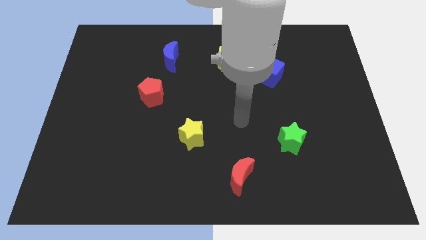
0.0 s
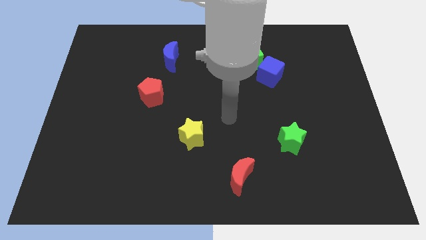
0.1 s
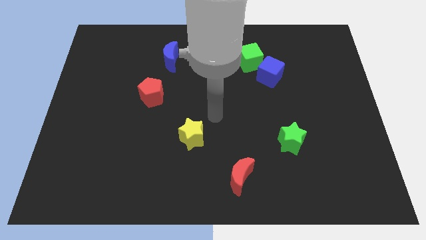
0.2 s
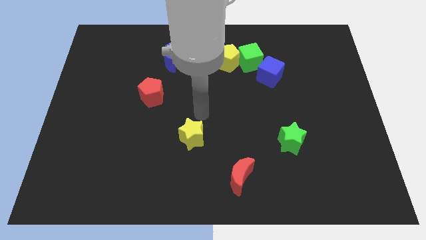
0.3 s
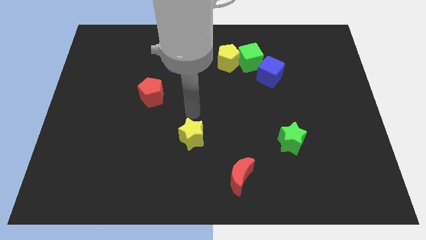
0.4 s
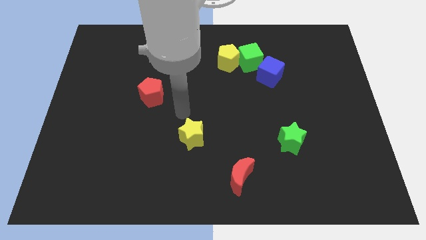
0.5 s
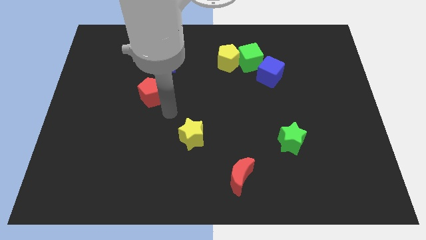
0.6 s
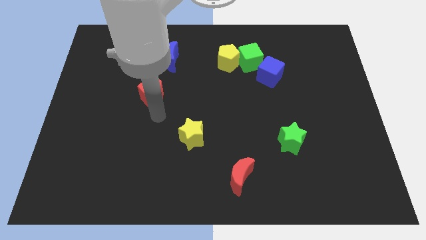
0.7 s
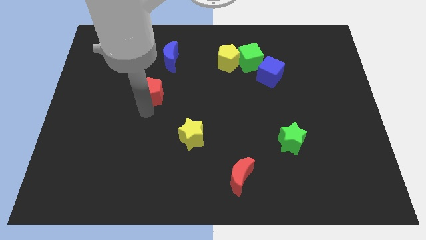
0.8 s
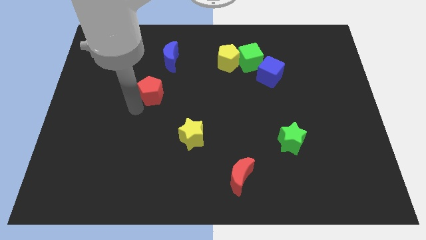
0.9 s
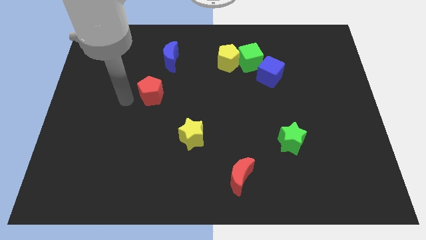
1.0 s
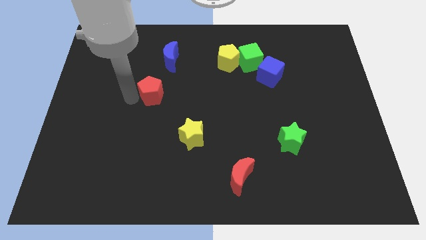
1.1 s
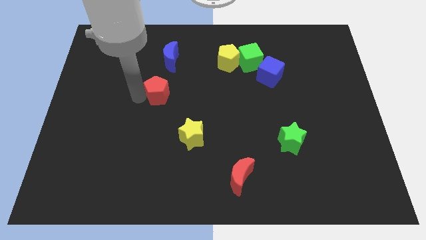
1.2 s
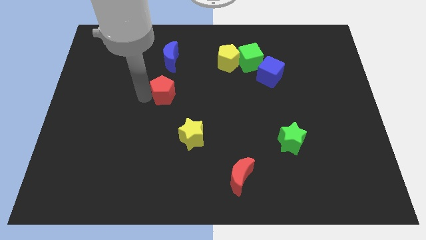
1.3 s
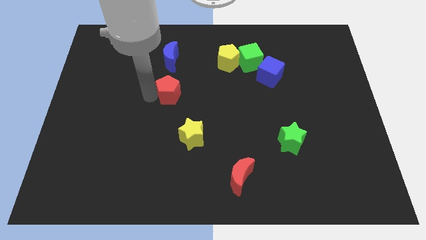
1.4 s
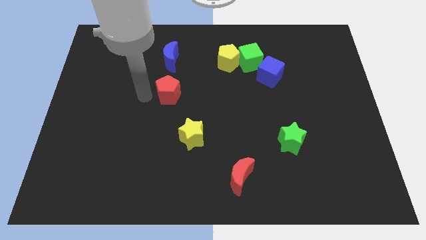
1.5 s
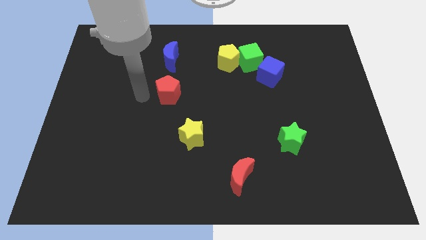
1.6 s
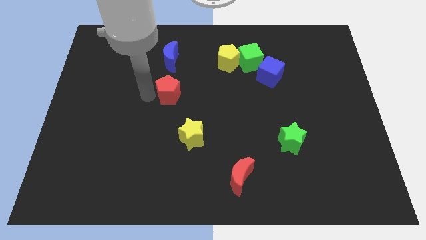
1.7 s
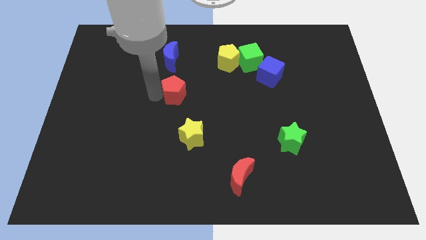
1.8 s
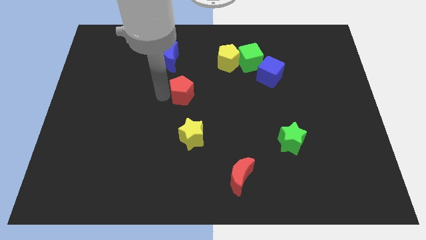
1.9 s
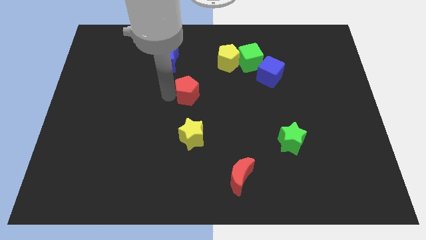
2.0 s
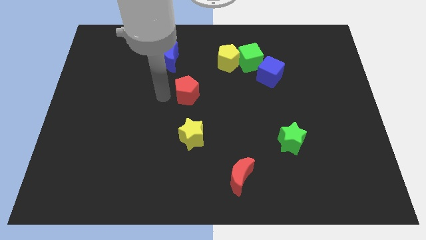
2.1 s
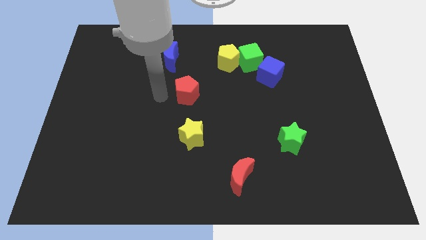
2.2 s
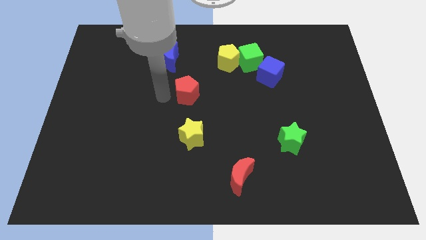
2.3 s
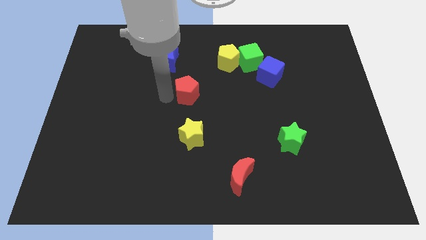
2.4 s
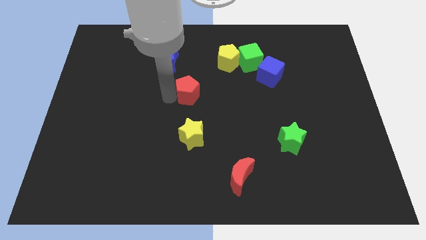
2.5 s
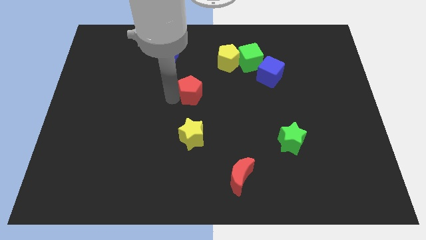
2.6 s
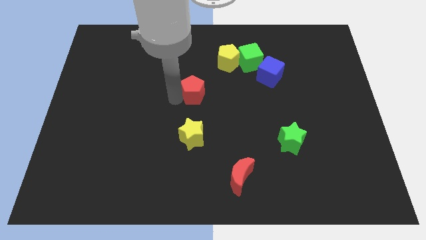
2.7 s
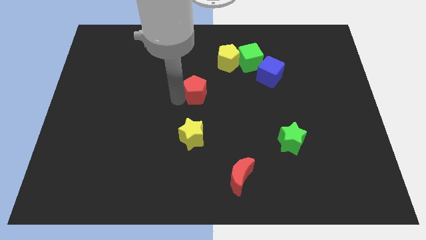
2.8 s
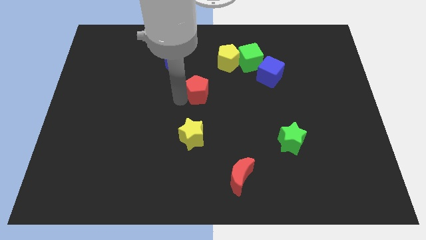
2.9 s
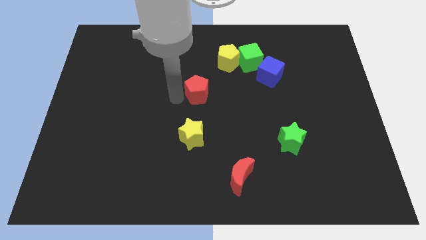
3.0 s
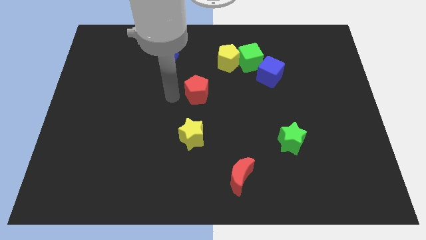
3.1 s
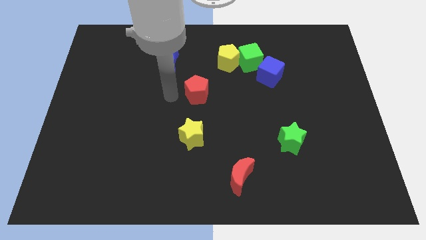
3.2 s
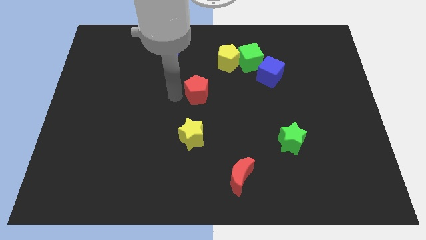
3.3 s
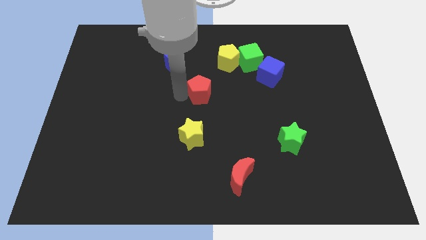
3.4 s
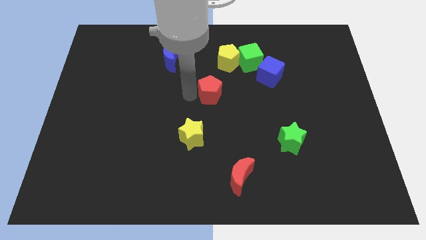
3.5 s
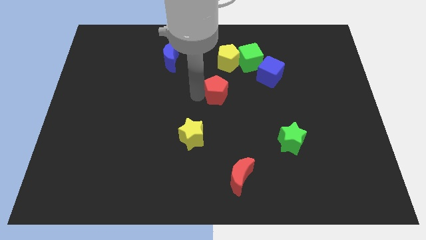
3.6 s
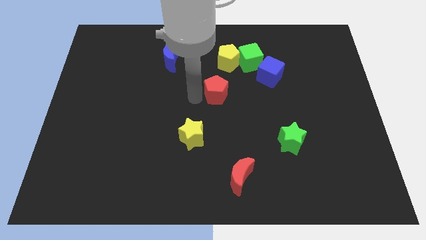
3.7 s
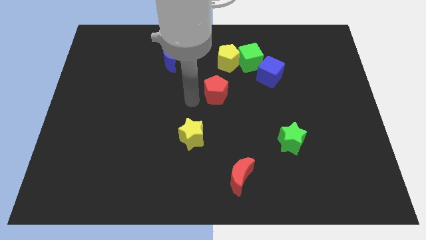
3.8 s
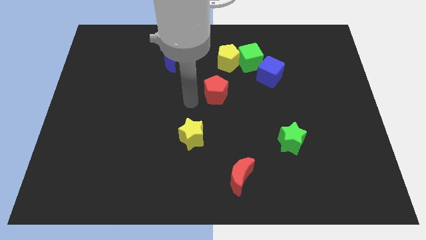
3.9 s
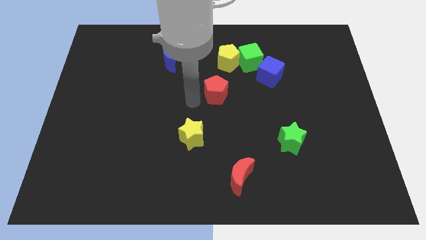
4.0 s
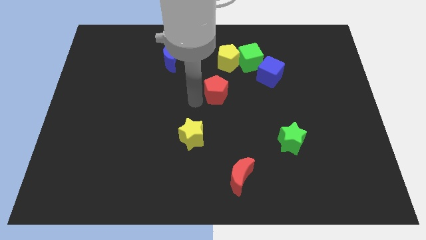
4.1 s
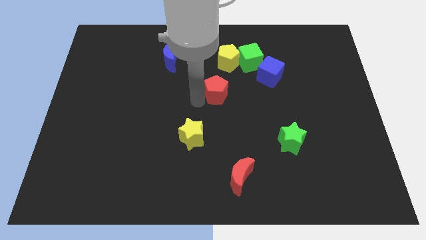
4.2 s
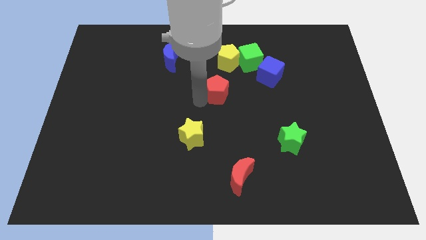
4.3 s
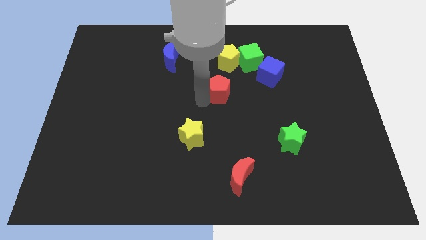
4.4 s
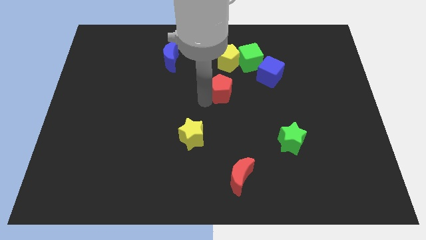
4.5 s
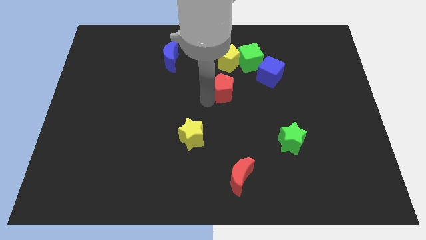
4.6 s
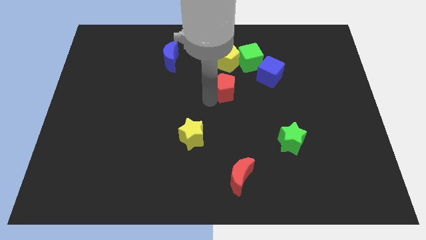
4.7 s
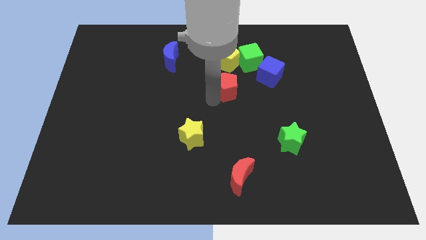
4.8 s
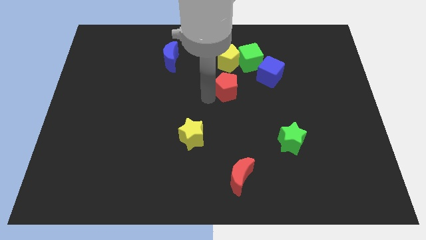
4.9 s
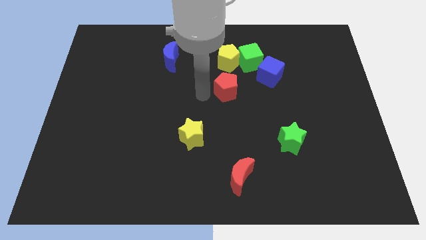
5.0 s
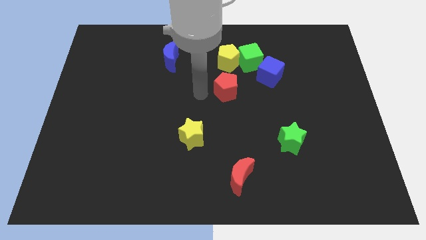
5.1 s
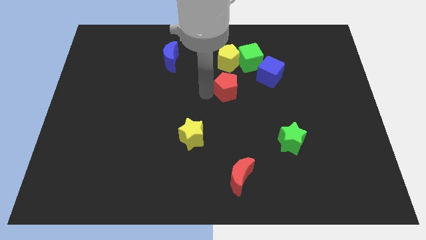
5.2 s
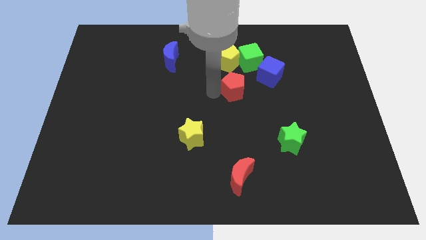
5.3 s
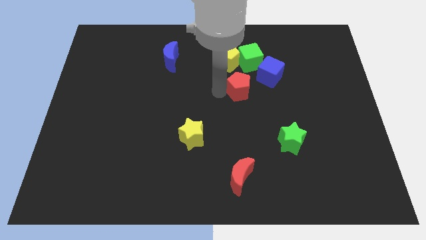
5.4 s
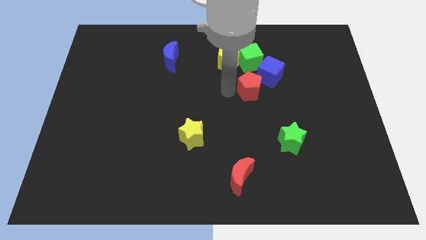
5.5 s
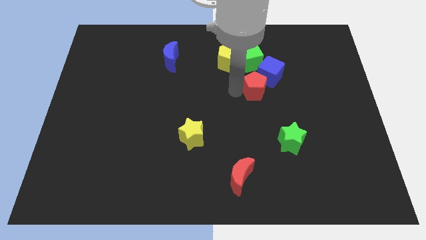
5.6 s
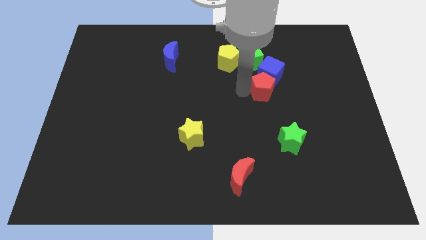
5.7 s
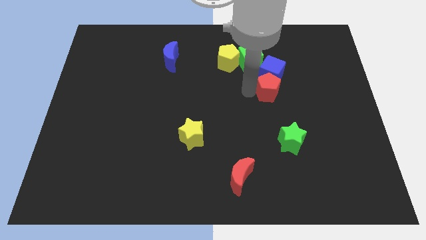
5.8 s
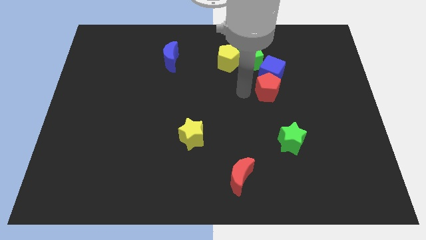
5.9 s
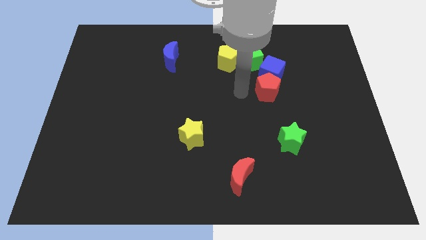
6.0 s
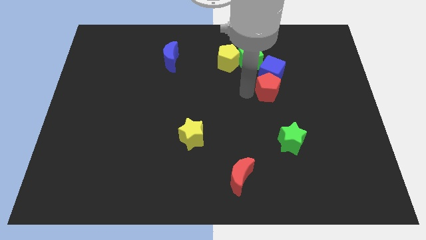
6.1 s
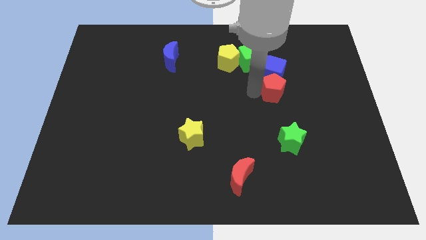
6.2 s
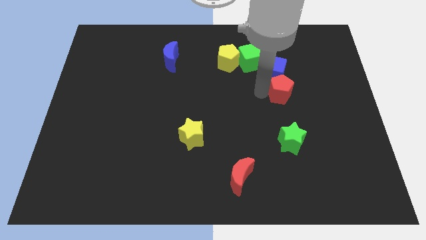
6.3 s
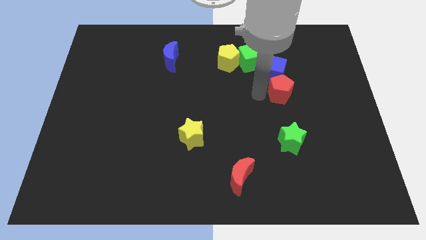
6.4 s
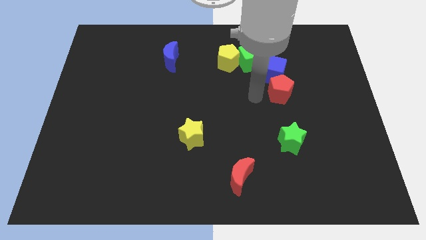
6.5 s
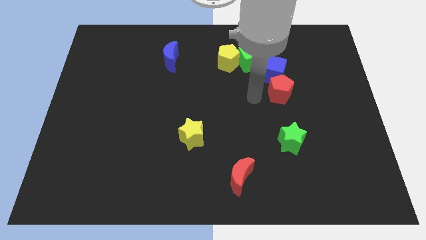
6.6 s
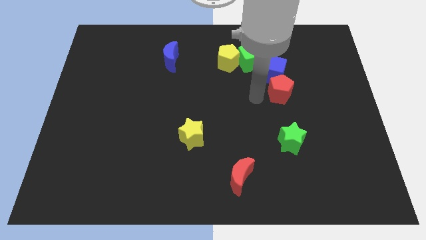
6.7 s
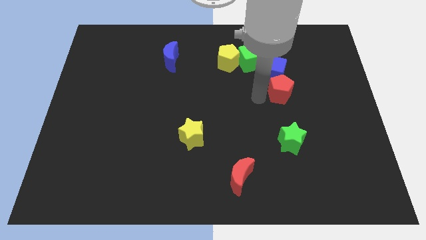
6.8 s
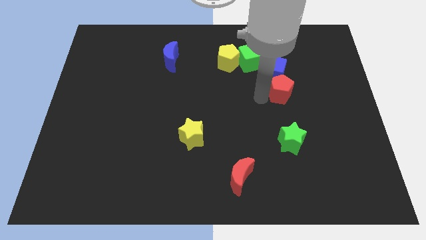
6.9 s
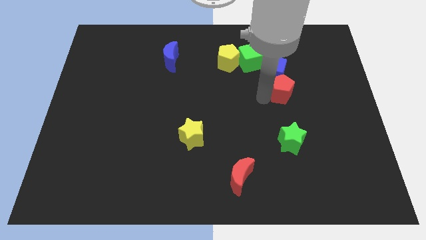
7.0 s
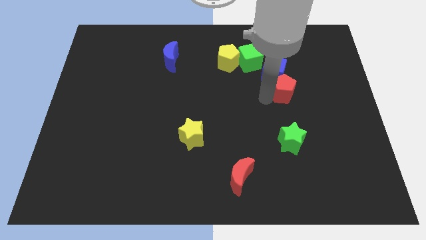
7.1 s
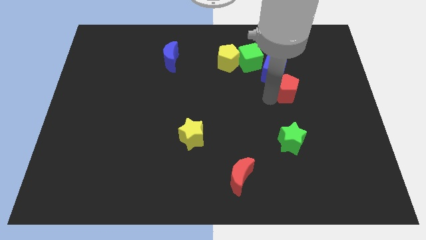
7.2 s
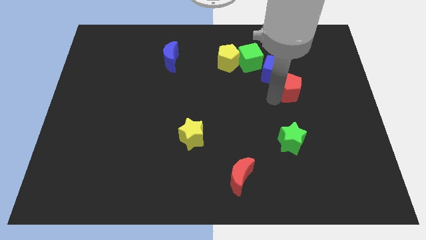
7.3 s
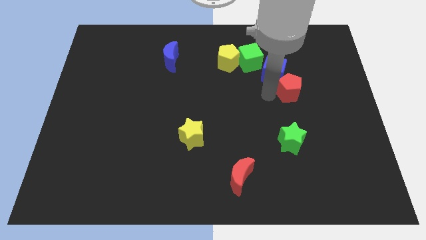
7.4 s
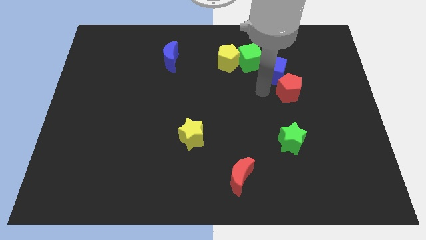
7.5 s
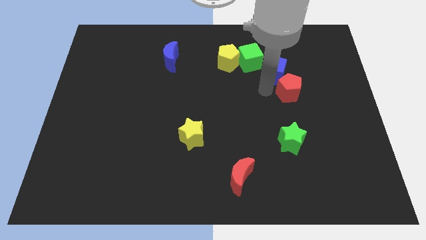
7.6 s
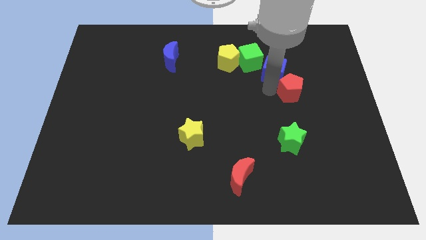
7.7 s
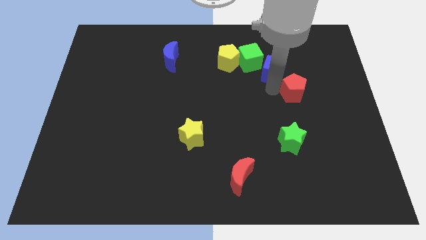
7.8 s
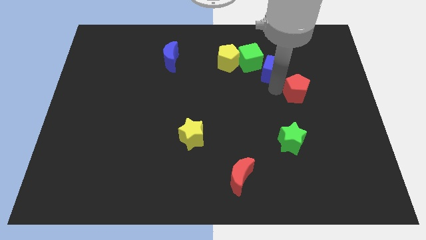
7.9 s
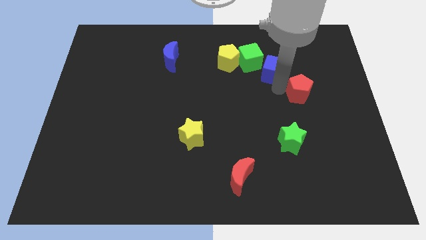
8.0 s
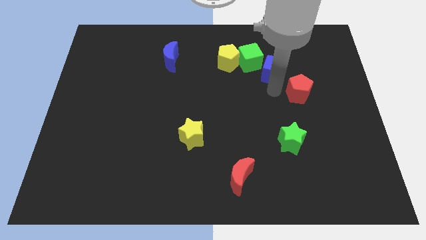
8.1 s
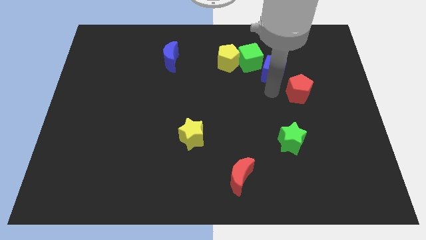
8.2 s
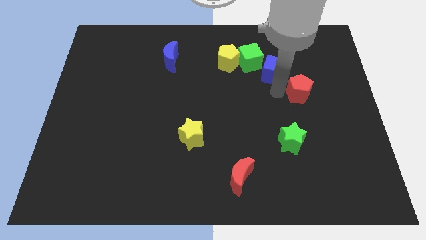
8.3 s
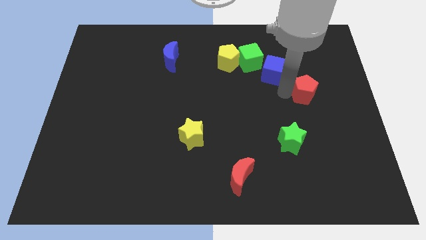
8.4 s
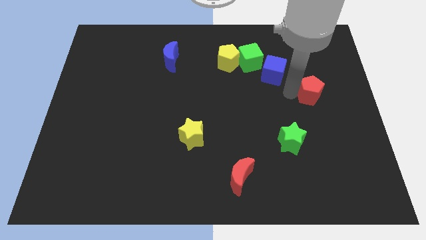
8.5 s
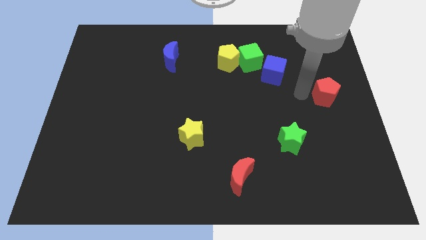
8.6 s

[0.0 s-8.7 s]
slide the red pentagon to the center right
